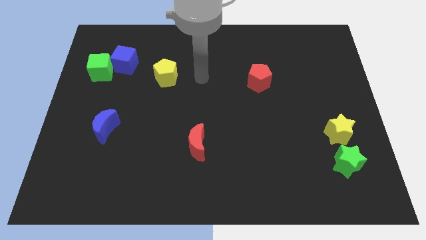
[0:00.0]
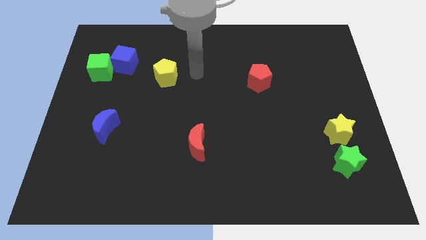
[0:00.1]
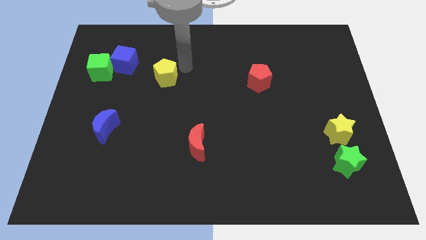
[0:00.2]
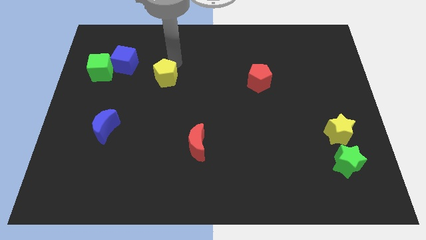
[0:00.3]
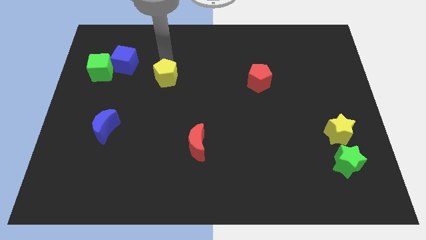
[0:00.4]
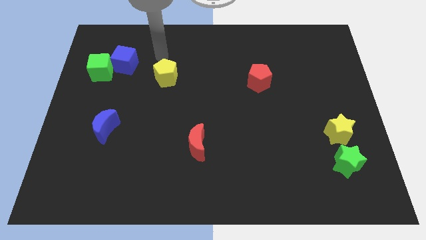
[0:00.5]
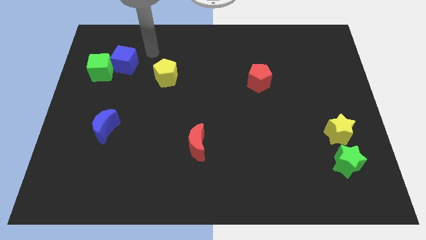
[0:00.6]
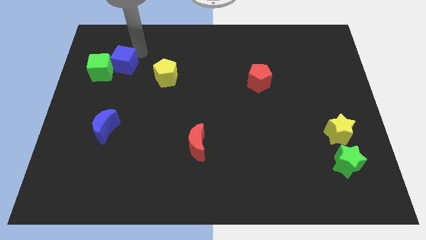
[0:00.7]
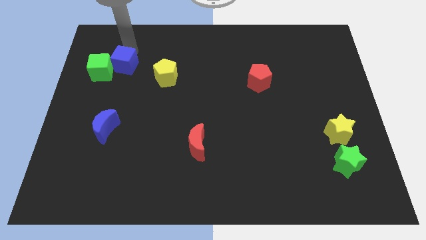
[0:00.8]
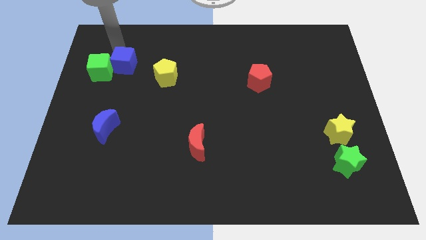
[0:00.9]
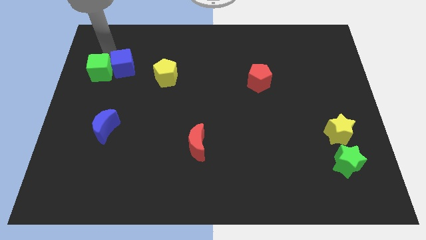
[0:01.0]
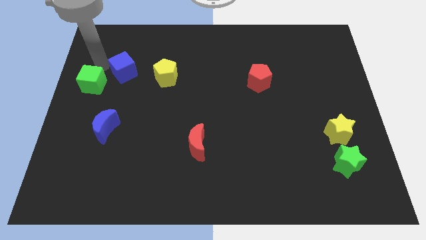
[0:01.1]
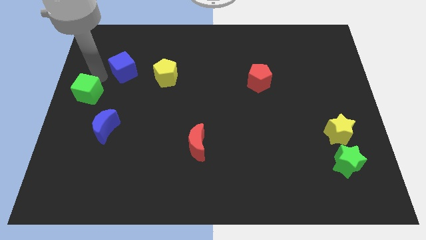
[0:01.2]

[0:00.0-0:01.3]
move the blue cube away from the green cube

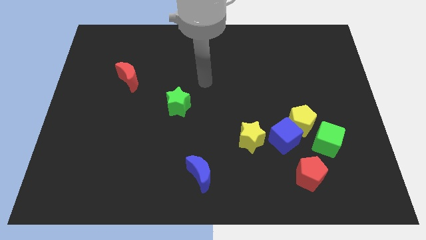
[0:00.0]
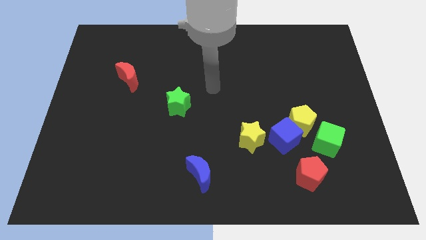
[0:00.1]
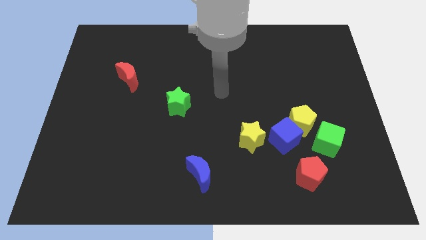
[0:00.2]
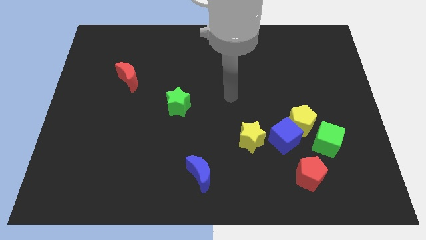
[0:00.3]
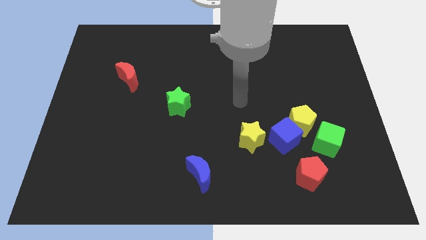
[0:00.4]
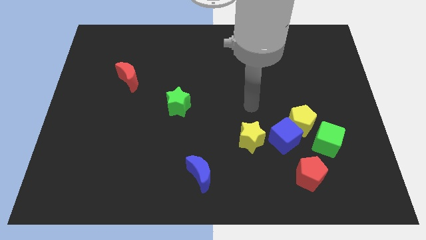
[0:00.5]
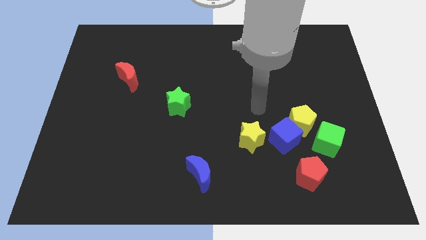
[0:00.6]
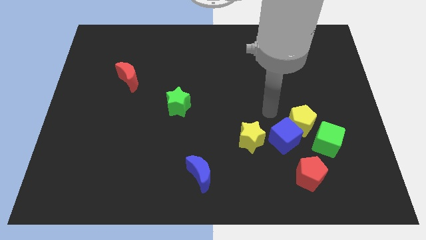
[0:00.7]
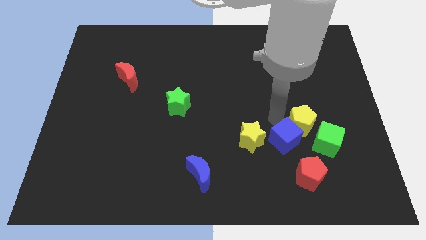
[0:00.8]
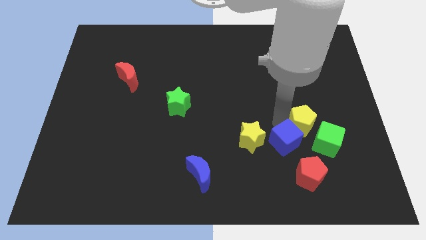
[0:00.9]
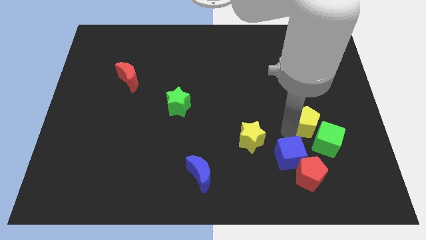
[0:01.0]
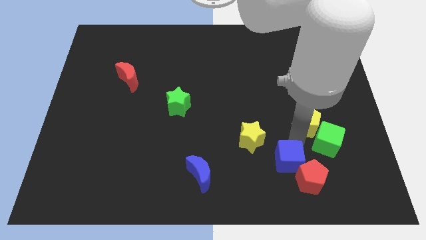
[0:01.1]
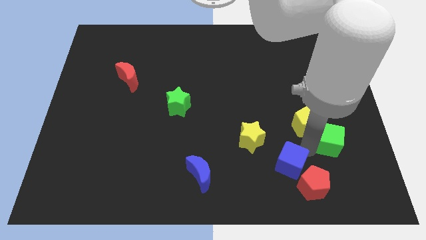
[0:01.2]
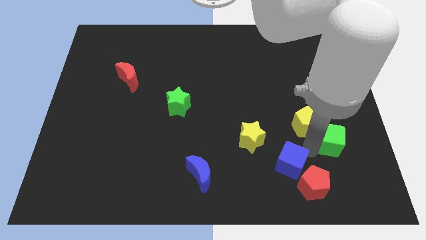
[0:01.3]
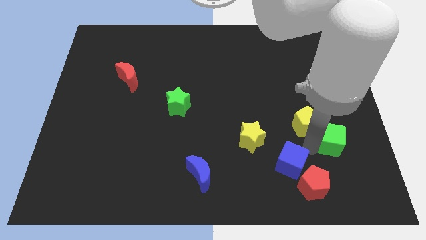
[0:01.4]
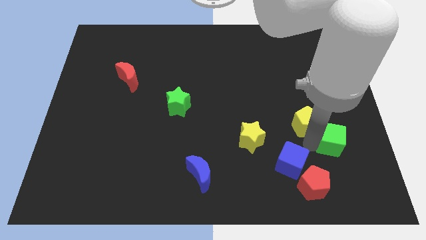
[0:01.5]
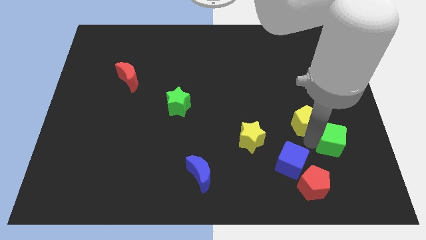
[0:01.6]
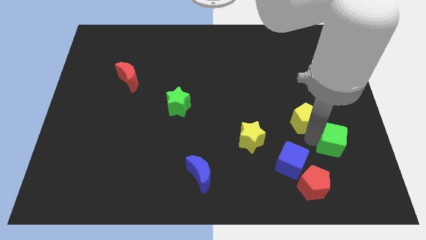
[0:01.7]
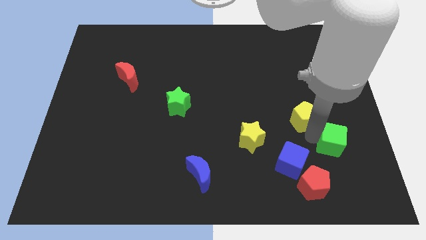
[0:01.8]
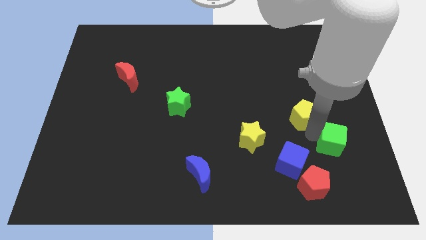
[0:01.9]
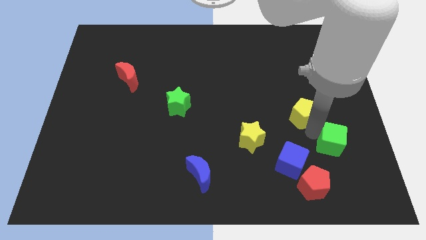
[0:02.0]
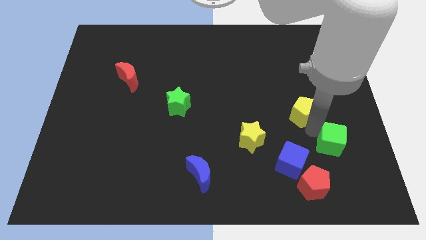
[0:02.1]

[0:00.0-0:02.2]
move the yellow pentagon away from the blue cube and green cube

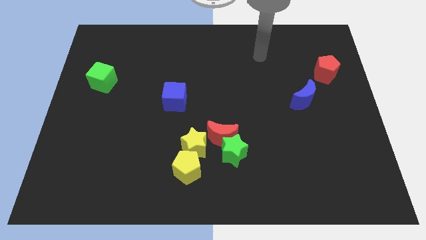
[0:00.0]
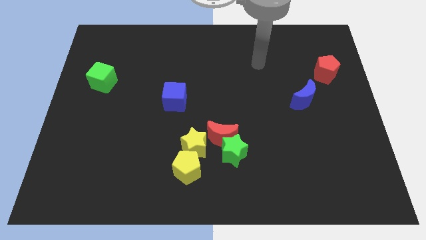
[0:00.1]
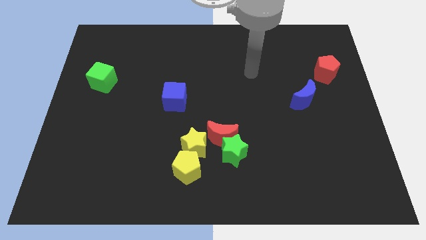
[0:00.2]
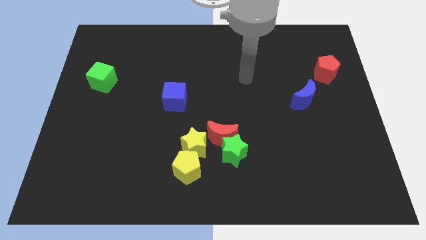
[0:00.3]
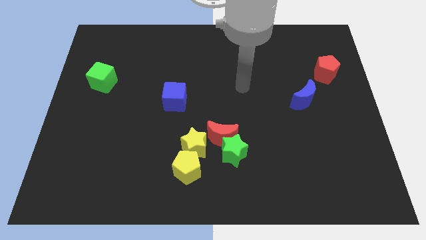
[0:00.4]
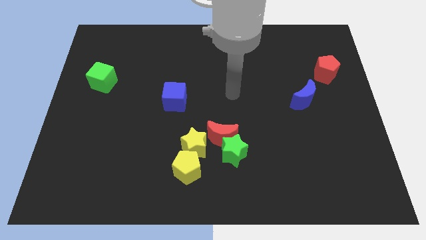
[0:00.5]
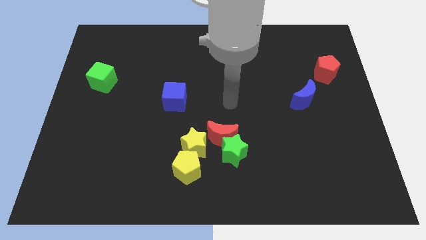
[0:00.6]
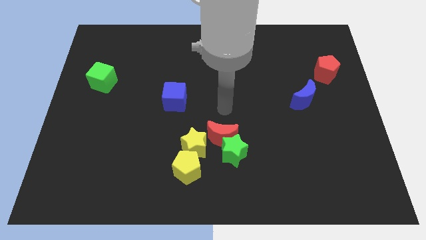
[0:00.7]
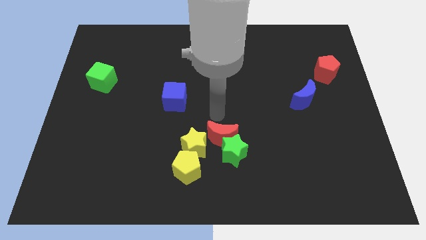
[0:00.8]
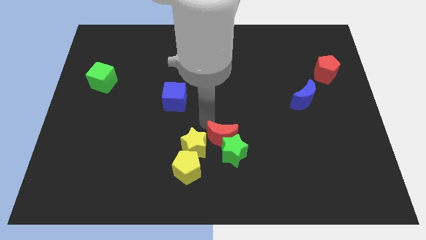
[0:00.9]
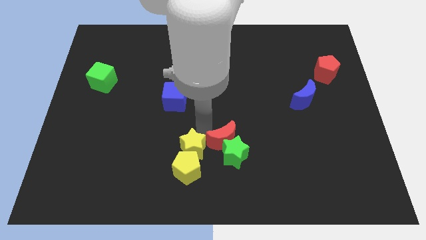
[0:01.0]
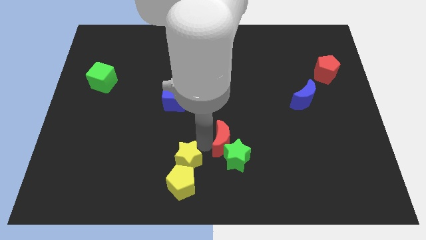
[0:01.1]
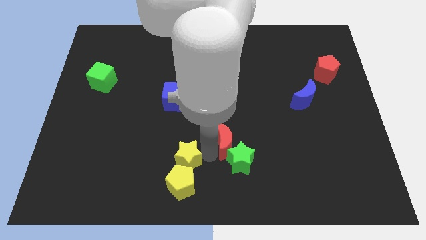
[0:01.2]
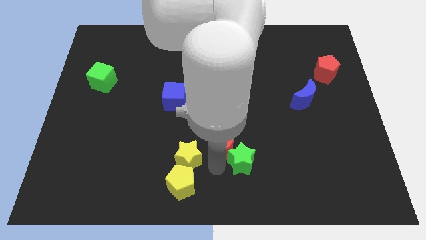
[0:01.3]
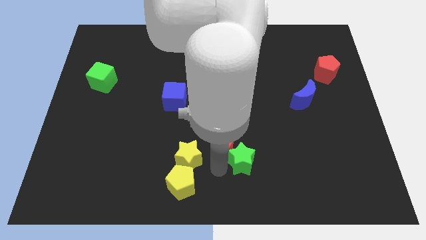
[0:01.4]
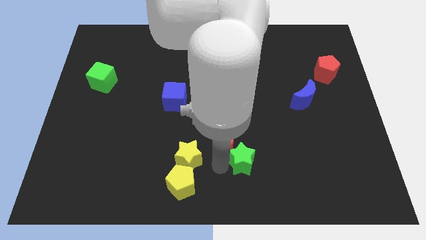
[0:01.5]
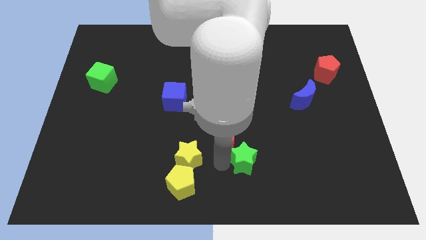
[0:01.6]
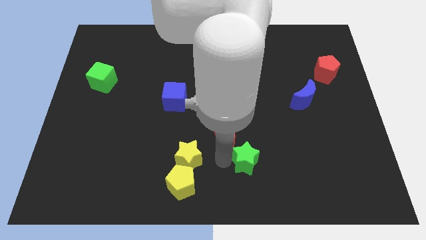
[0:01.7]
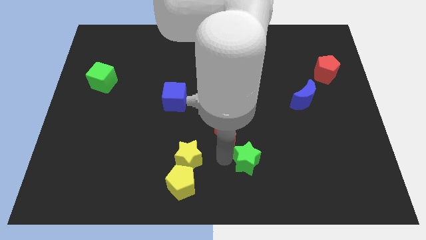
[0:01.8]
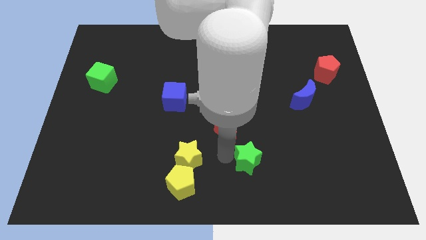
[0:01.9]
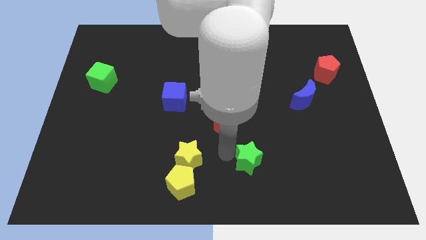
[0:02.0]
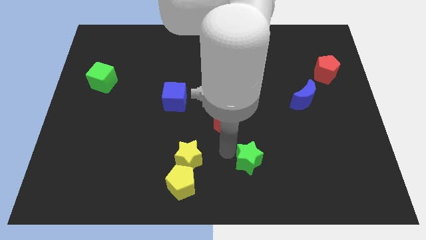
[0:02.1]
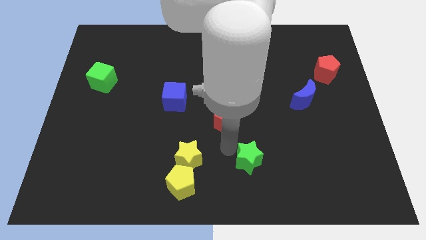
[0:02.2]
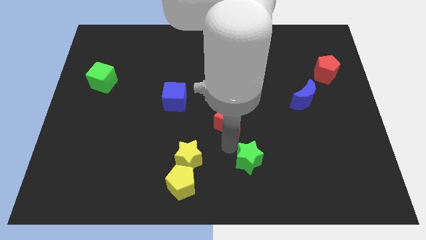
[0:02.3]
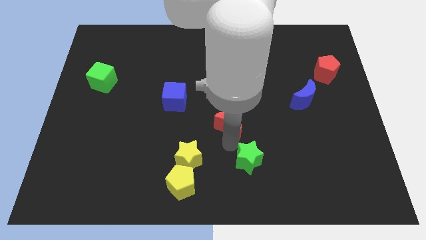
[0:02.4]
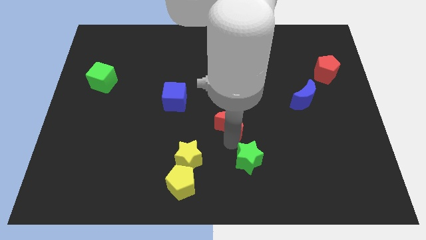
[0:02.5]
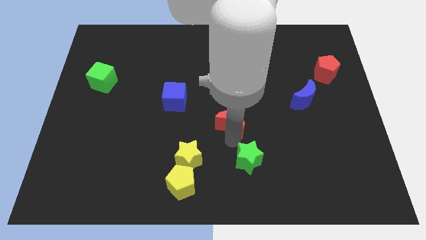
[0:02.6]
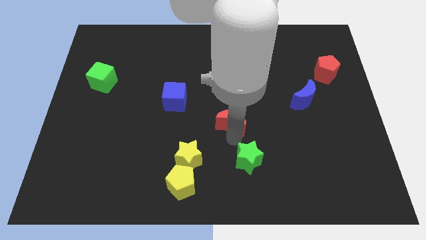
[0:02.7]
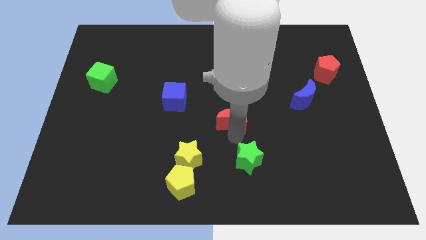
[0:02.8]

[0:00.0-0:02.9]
move the red moon away from the green star and yellow star

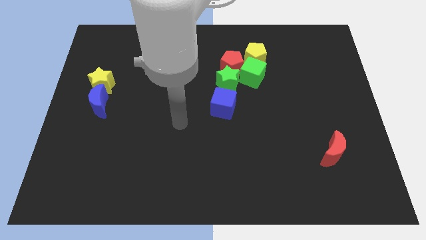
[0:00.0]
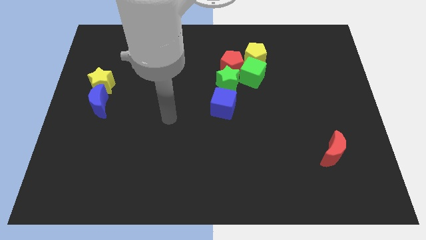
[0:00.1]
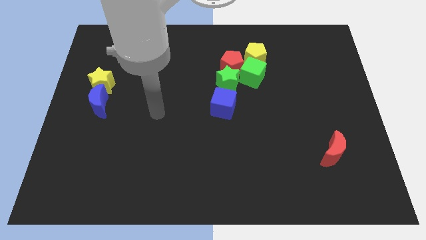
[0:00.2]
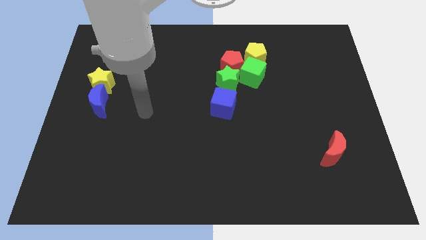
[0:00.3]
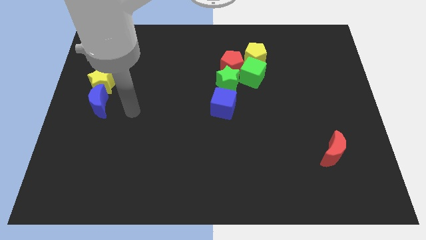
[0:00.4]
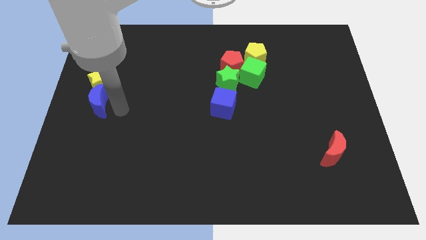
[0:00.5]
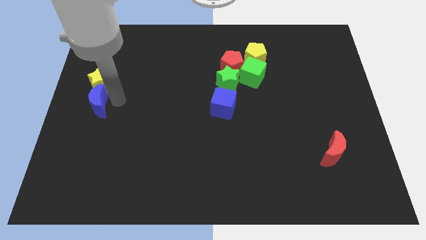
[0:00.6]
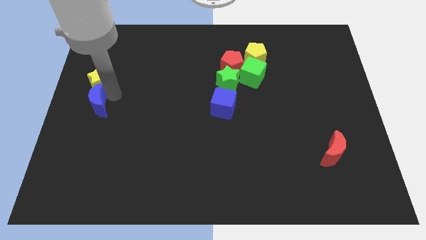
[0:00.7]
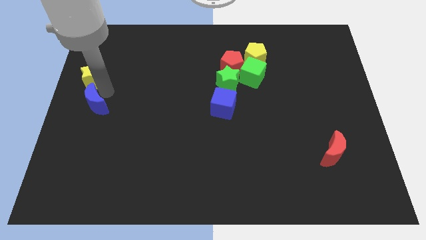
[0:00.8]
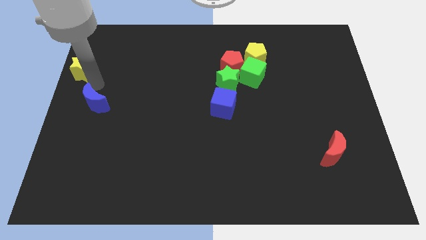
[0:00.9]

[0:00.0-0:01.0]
move the blue moon away from the yellow star

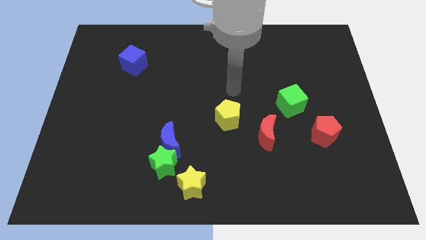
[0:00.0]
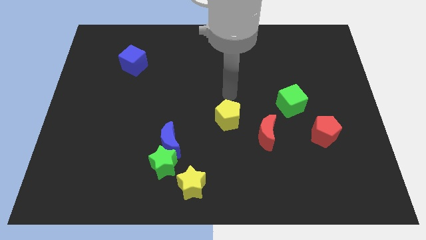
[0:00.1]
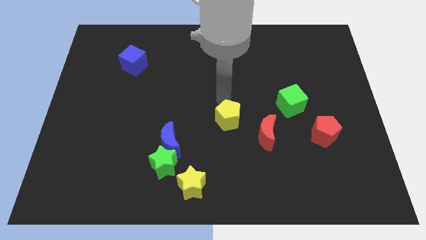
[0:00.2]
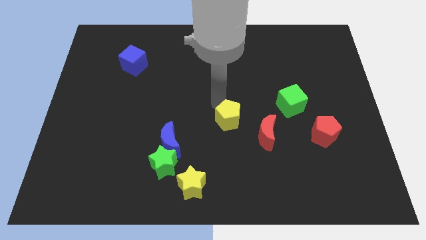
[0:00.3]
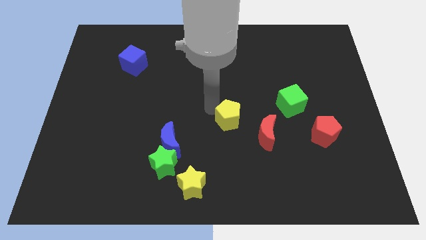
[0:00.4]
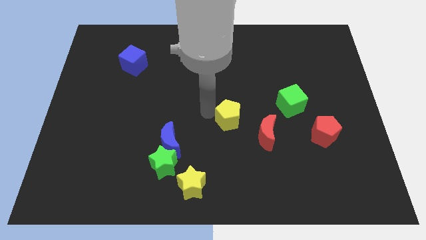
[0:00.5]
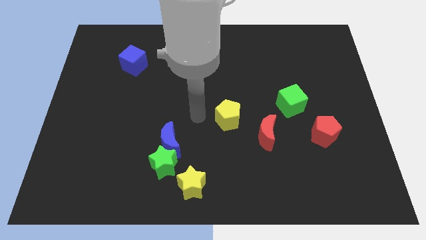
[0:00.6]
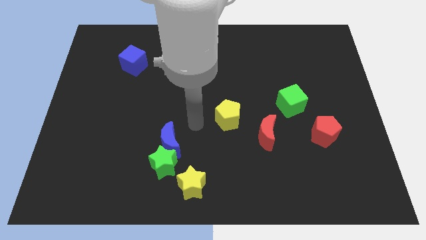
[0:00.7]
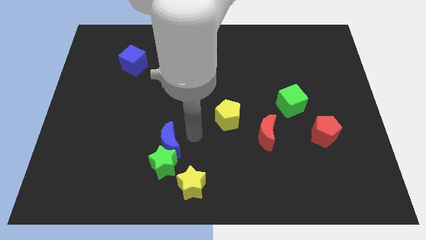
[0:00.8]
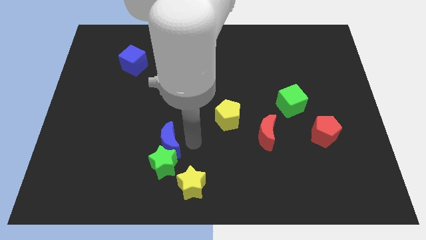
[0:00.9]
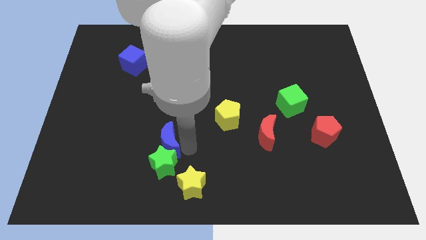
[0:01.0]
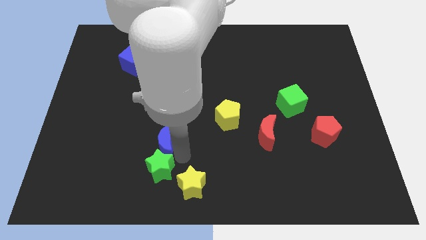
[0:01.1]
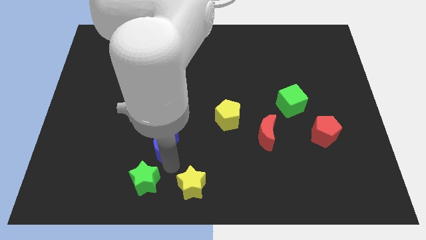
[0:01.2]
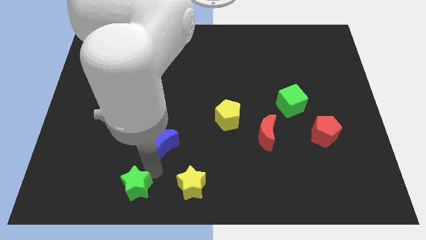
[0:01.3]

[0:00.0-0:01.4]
move the blue moon away from the green star

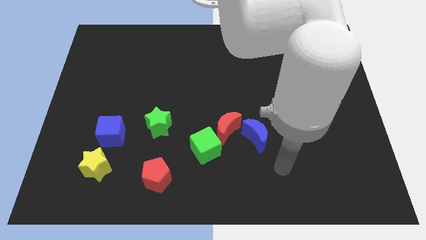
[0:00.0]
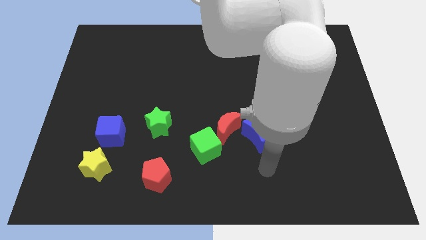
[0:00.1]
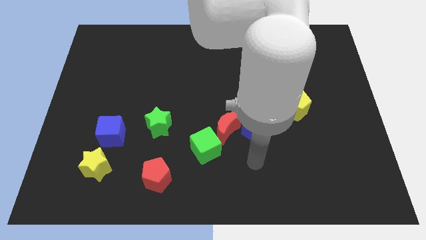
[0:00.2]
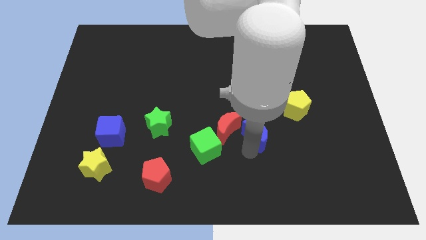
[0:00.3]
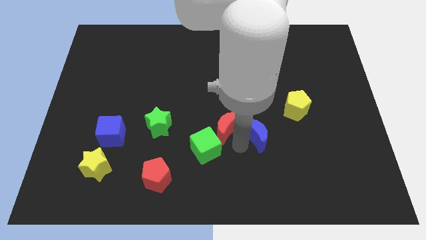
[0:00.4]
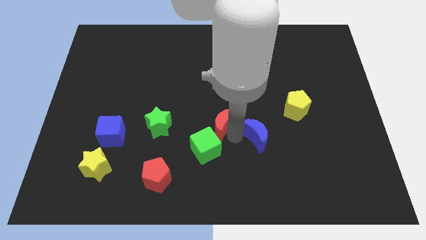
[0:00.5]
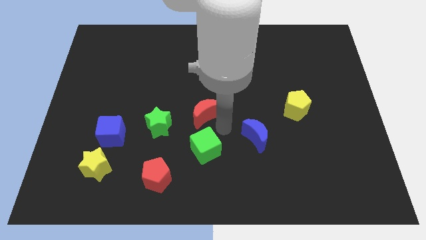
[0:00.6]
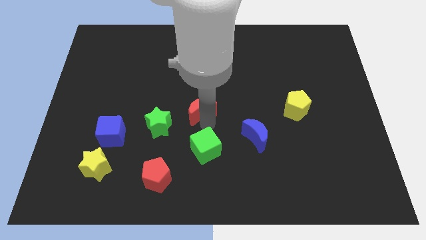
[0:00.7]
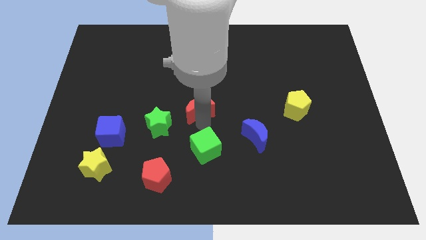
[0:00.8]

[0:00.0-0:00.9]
pull the green cube apart from the red moon
